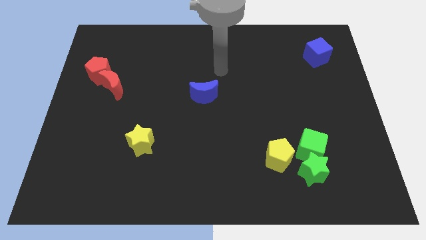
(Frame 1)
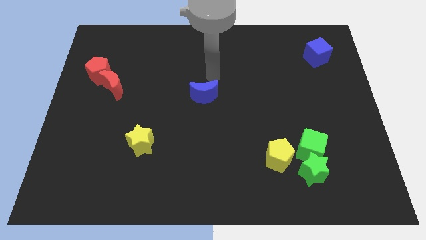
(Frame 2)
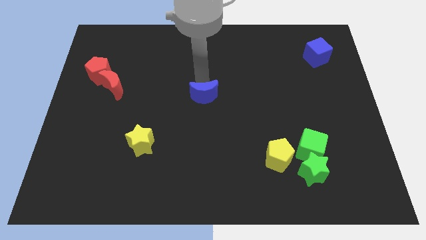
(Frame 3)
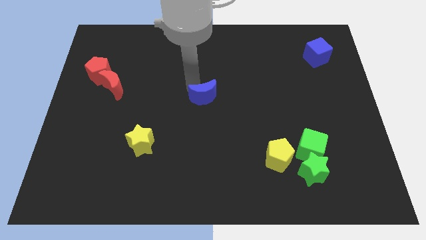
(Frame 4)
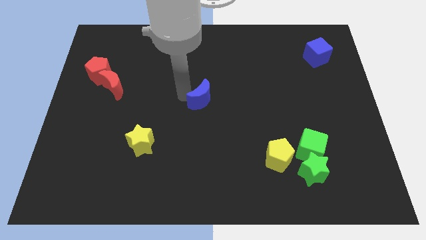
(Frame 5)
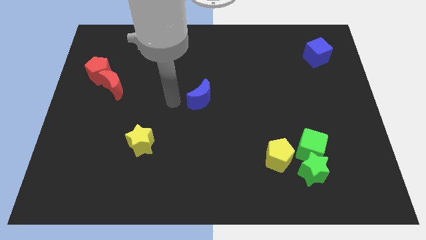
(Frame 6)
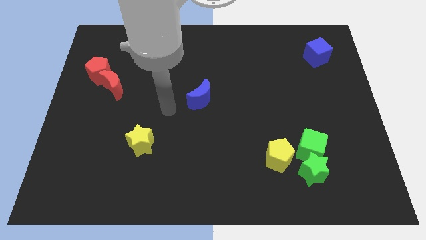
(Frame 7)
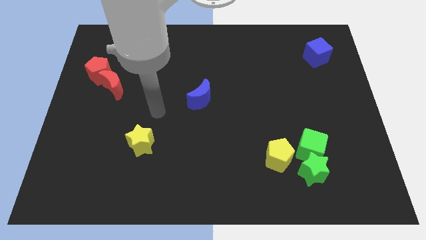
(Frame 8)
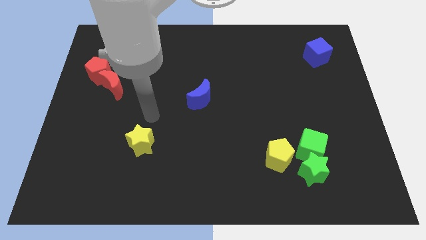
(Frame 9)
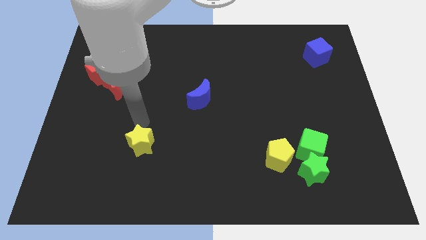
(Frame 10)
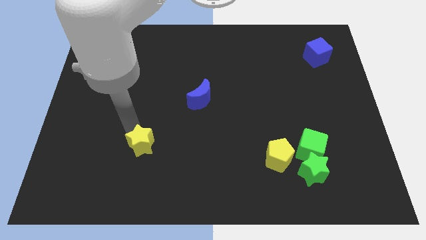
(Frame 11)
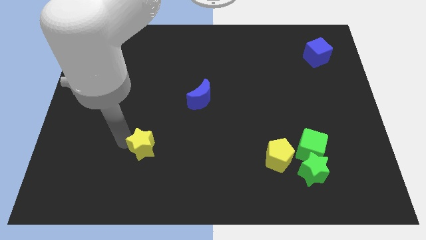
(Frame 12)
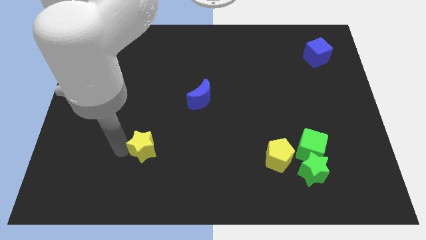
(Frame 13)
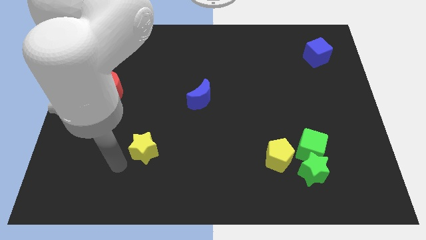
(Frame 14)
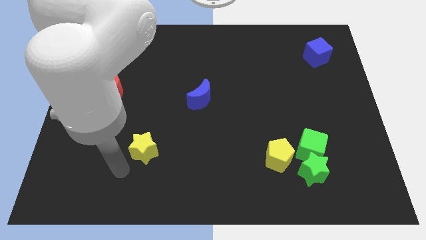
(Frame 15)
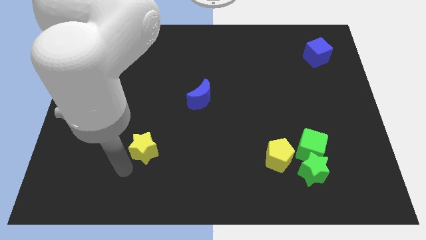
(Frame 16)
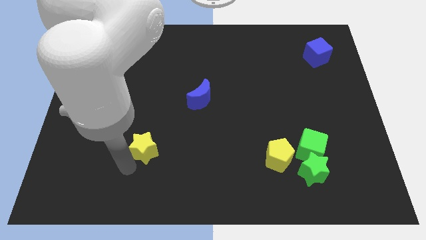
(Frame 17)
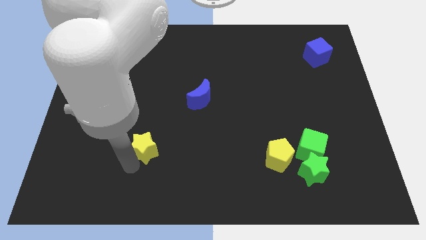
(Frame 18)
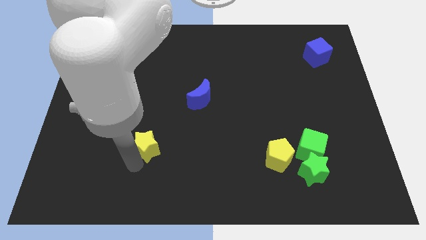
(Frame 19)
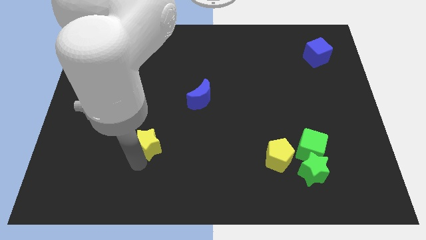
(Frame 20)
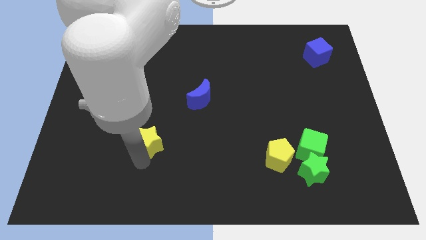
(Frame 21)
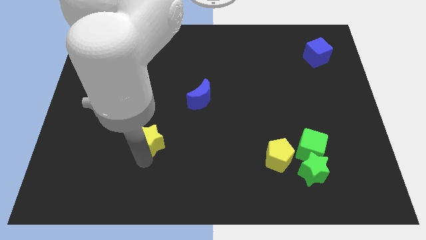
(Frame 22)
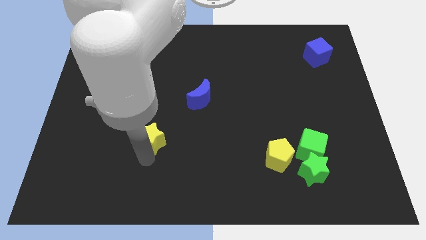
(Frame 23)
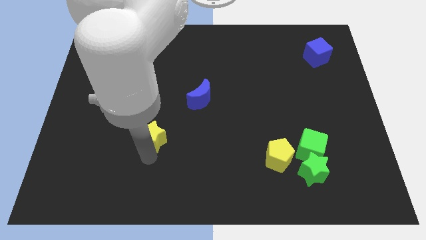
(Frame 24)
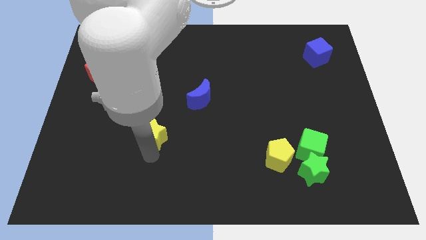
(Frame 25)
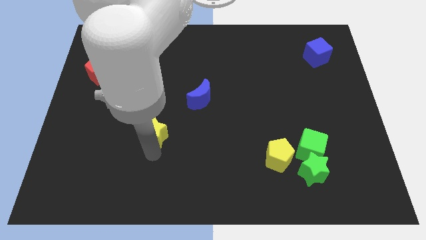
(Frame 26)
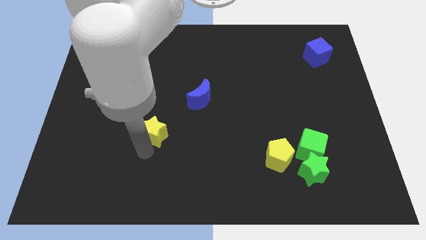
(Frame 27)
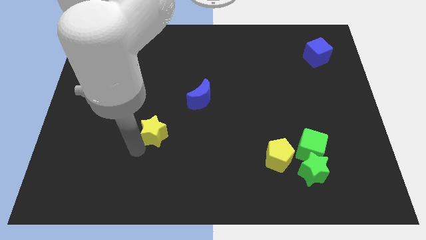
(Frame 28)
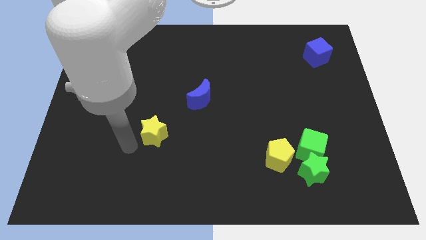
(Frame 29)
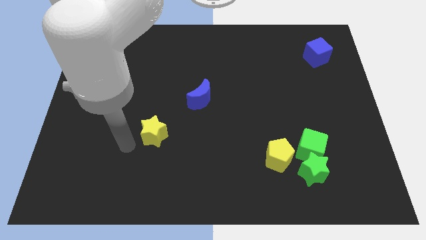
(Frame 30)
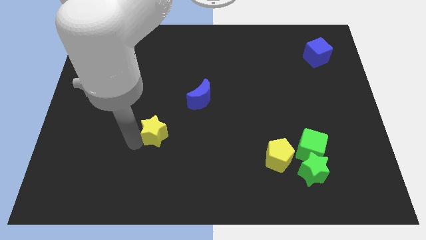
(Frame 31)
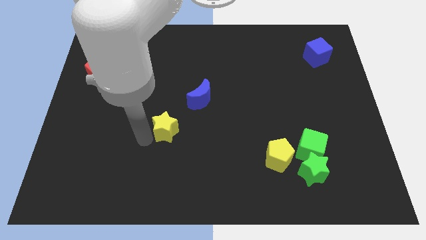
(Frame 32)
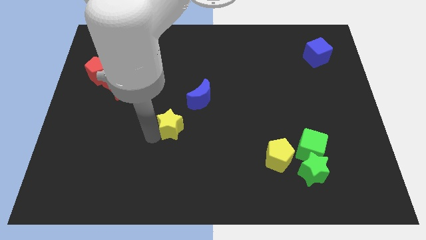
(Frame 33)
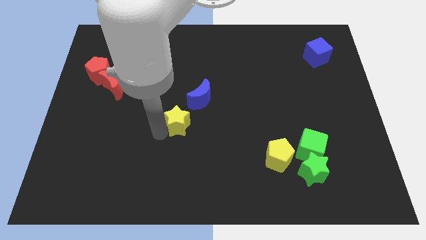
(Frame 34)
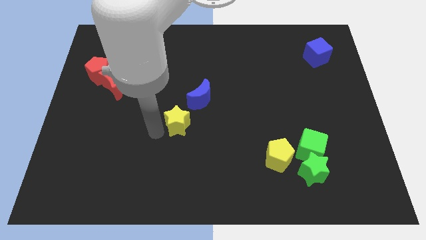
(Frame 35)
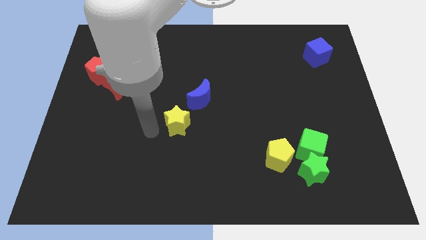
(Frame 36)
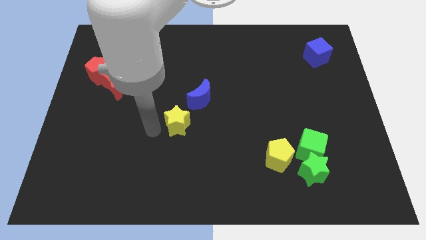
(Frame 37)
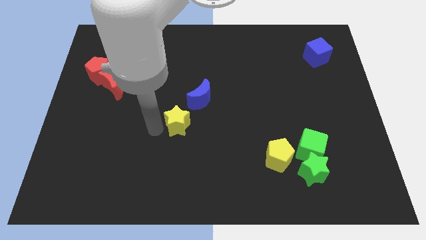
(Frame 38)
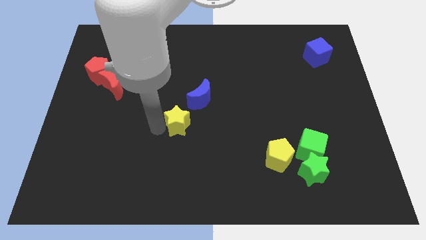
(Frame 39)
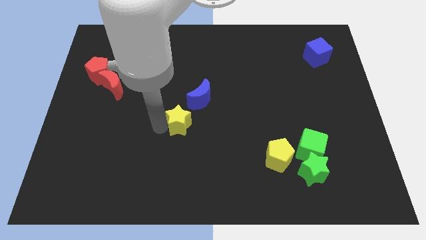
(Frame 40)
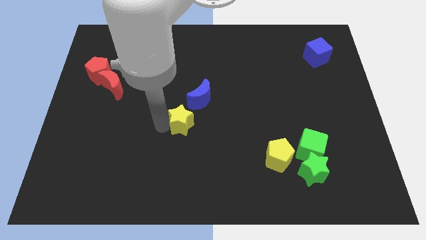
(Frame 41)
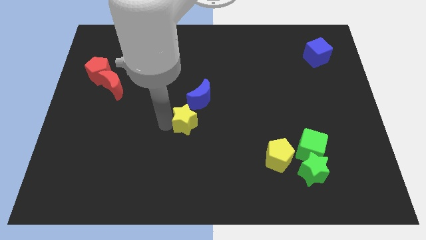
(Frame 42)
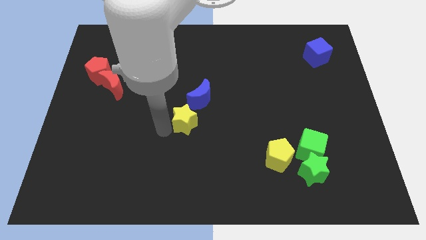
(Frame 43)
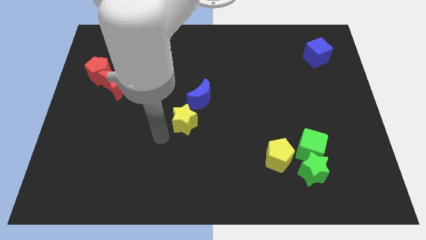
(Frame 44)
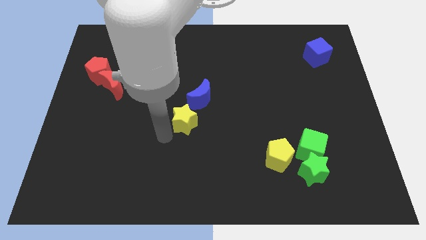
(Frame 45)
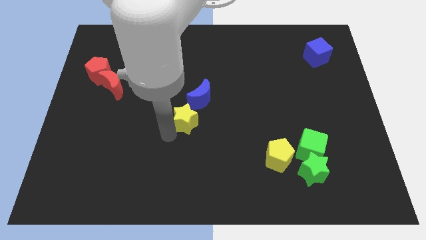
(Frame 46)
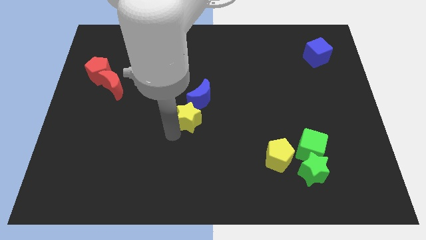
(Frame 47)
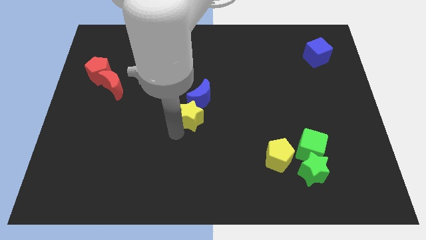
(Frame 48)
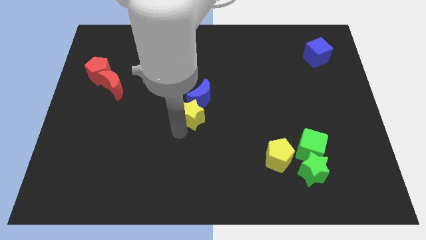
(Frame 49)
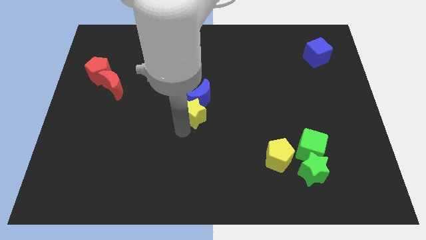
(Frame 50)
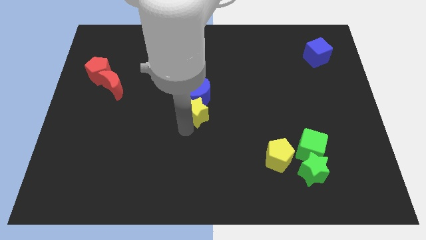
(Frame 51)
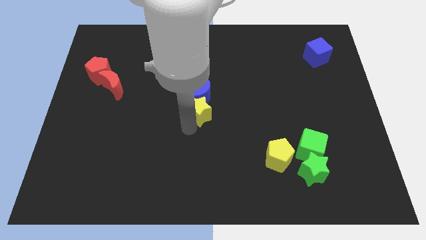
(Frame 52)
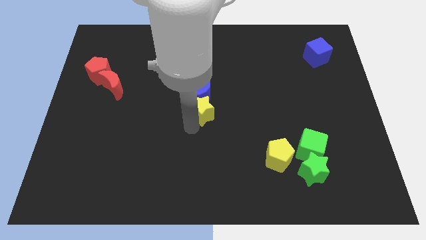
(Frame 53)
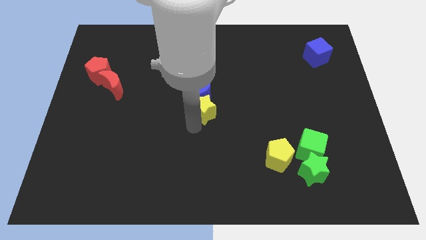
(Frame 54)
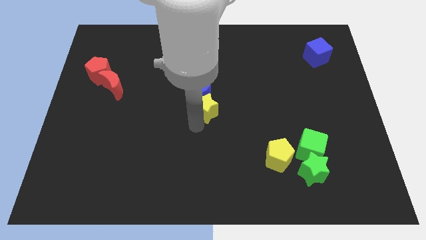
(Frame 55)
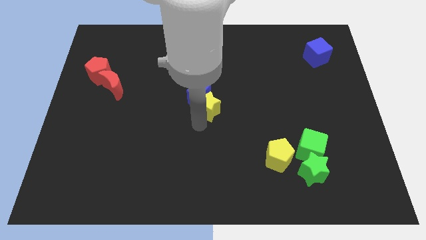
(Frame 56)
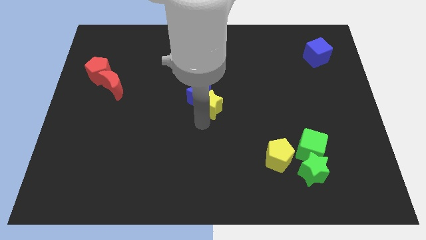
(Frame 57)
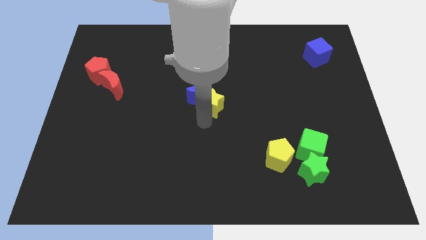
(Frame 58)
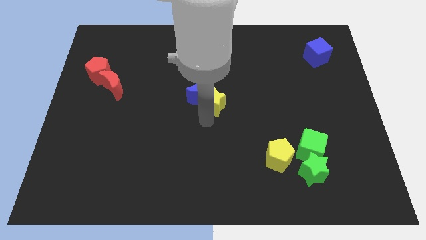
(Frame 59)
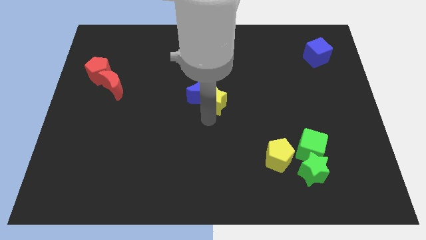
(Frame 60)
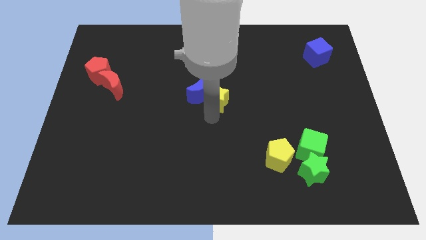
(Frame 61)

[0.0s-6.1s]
move the yellow star diagonally up and right

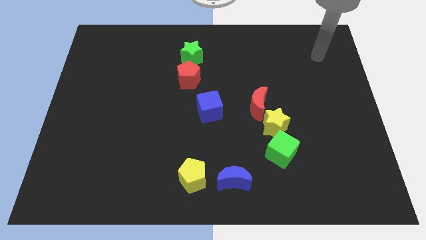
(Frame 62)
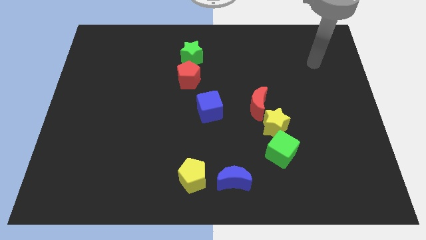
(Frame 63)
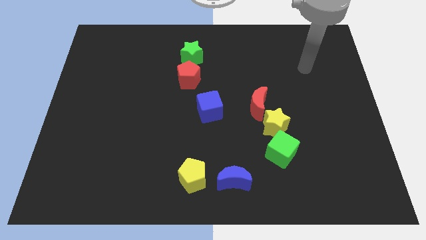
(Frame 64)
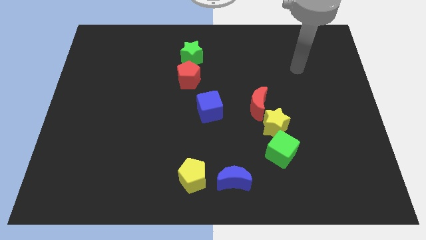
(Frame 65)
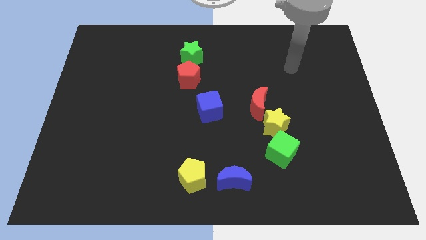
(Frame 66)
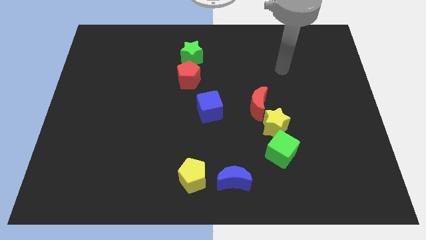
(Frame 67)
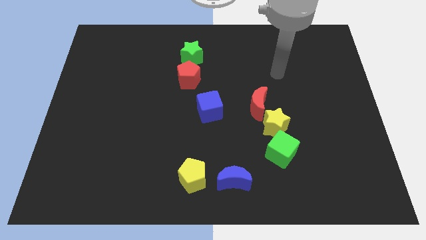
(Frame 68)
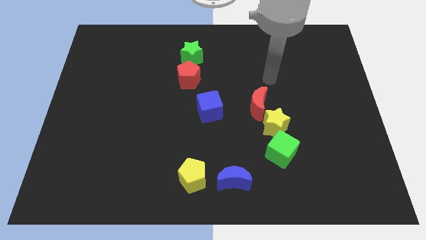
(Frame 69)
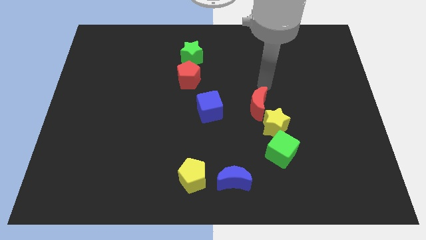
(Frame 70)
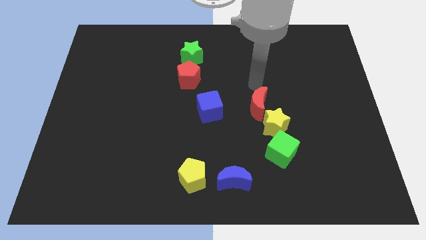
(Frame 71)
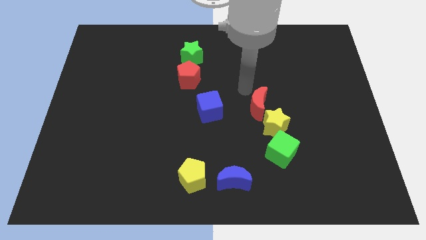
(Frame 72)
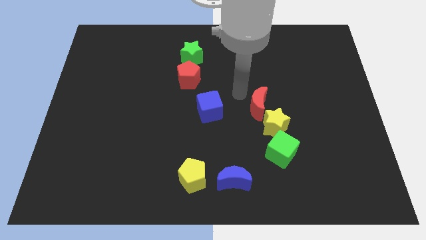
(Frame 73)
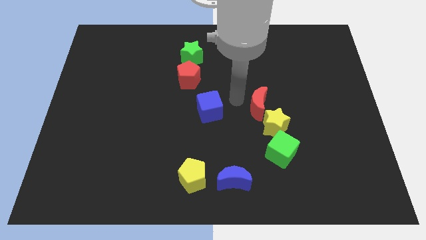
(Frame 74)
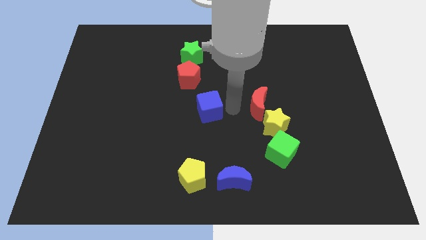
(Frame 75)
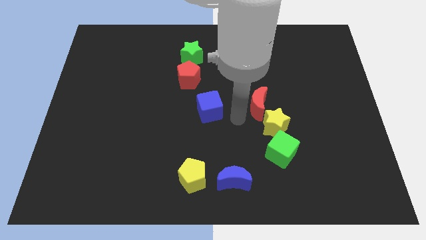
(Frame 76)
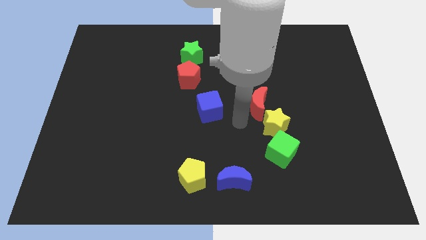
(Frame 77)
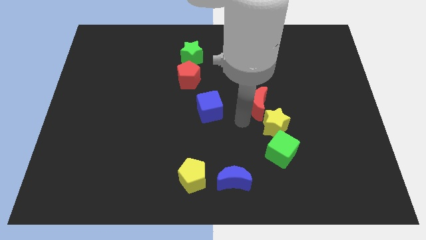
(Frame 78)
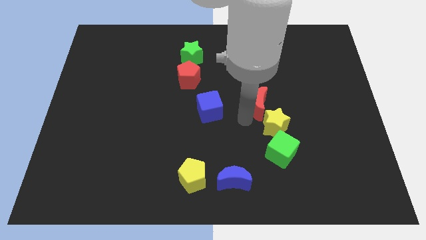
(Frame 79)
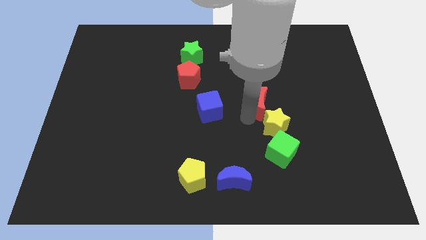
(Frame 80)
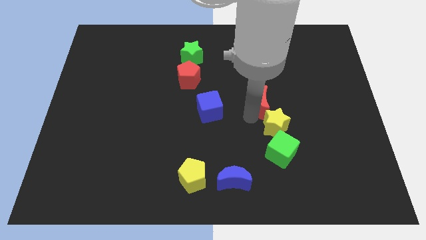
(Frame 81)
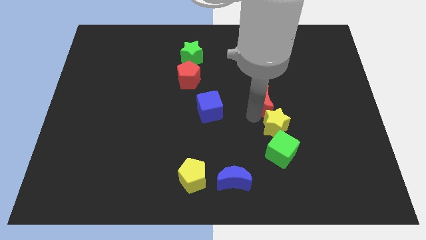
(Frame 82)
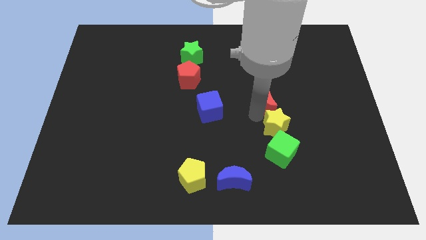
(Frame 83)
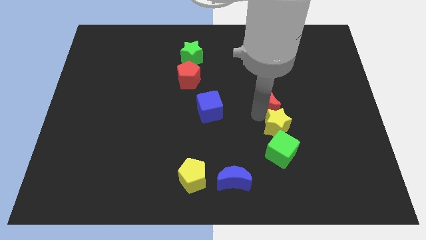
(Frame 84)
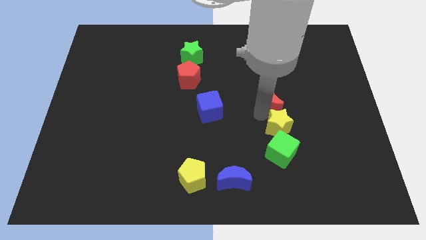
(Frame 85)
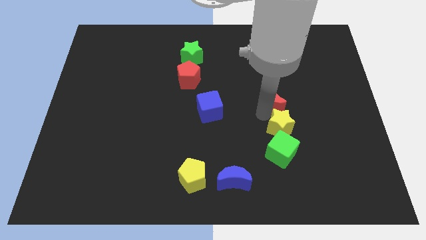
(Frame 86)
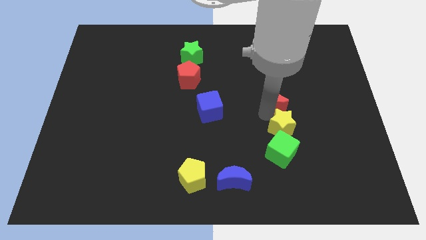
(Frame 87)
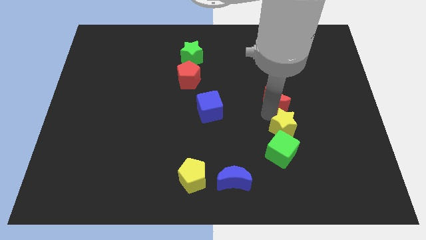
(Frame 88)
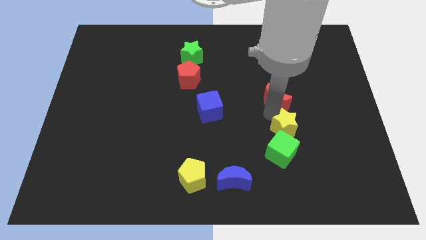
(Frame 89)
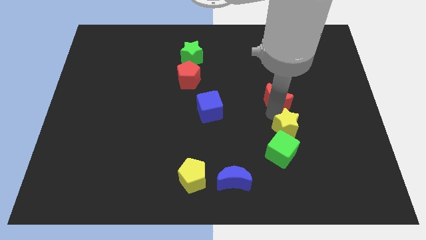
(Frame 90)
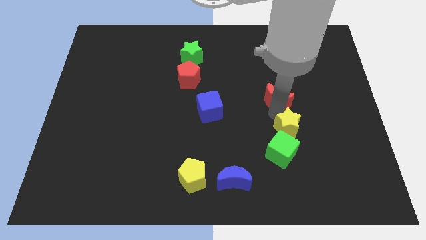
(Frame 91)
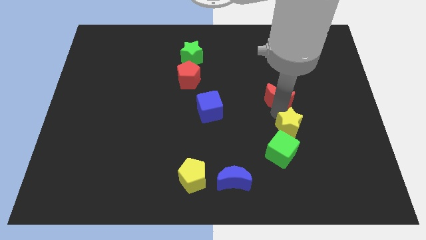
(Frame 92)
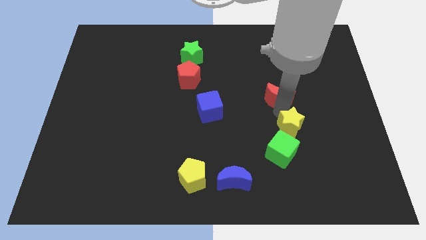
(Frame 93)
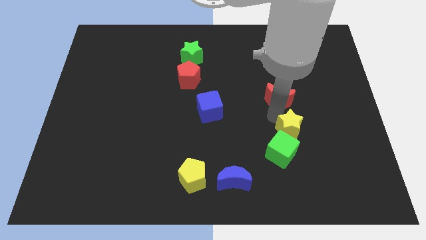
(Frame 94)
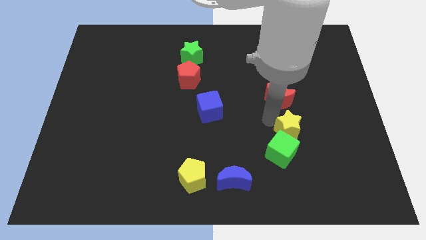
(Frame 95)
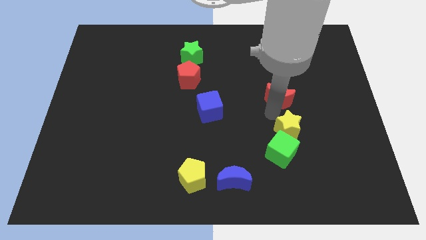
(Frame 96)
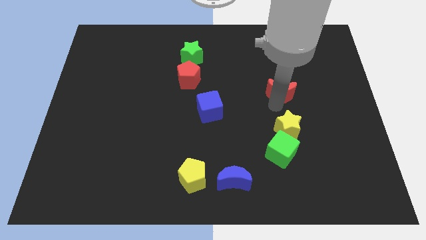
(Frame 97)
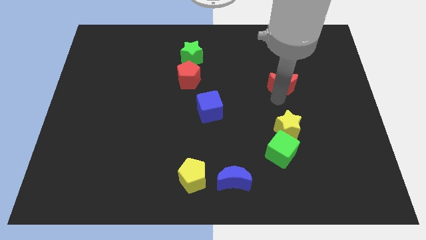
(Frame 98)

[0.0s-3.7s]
slide the red moon somewhat diagonally upwards and right
